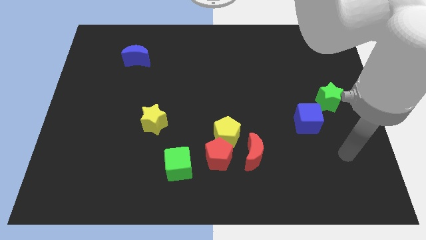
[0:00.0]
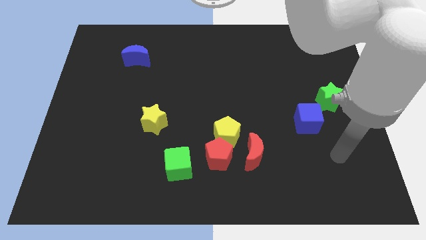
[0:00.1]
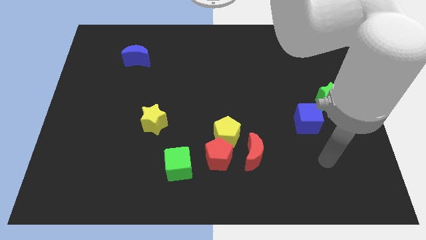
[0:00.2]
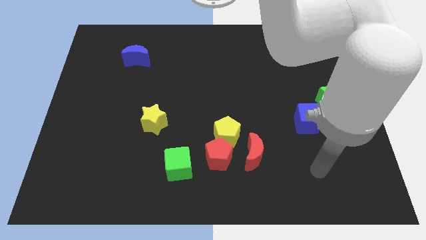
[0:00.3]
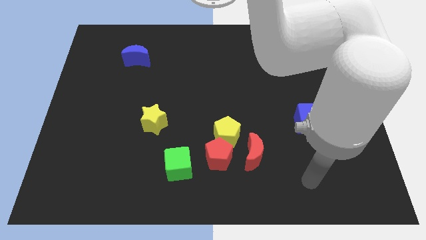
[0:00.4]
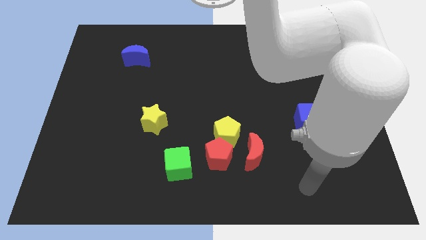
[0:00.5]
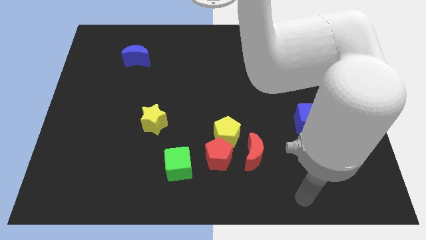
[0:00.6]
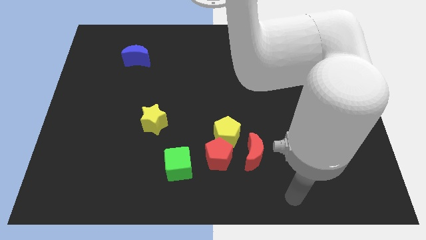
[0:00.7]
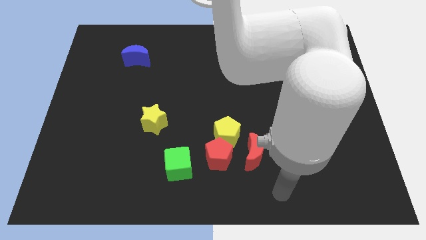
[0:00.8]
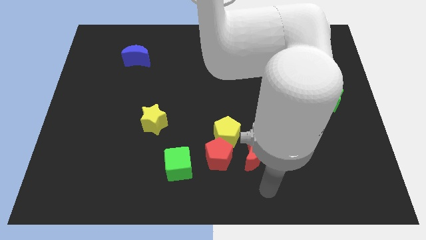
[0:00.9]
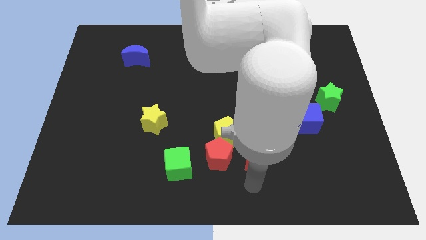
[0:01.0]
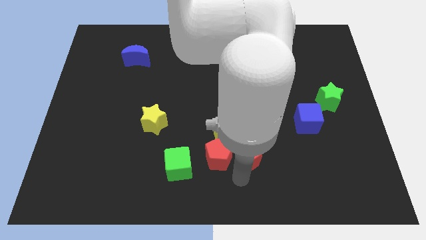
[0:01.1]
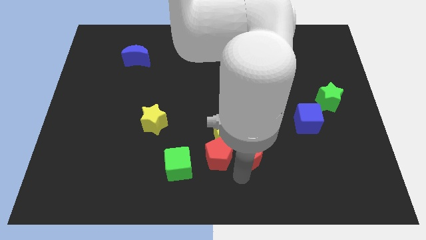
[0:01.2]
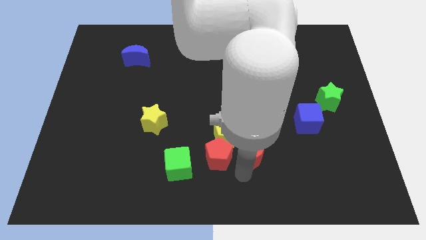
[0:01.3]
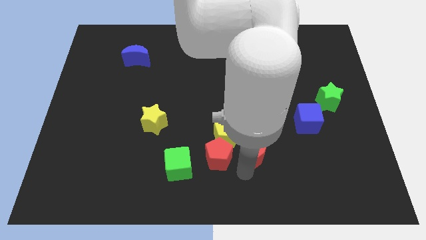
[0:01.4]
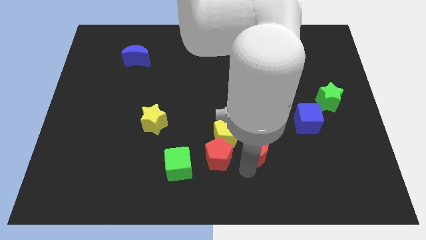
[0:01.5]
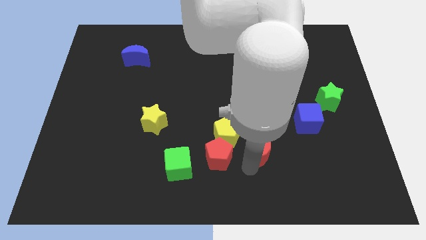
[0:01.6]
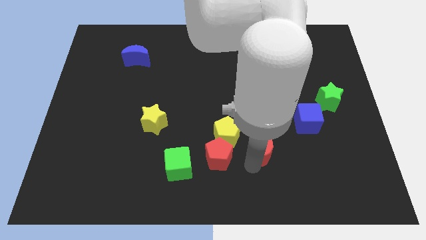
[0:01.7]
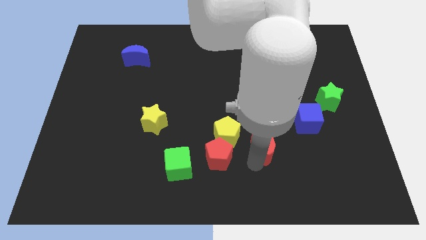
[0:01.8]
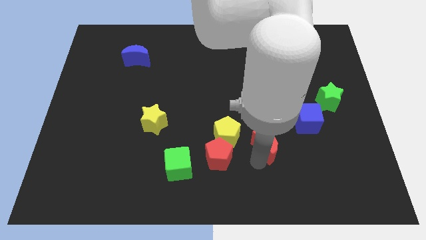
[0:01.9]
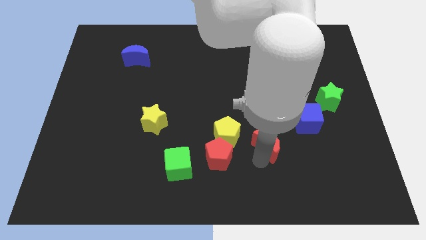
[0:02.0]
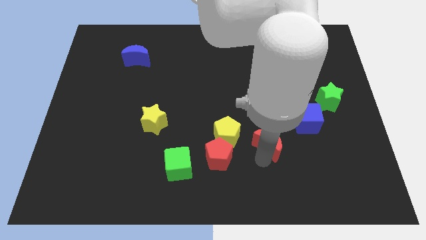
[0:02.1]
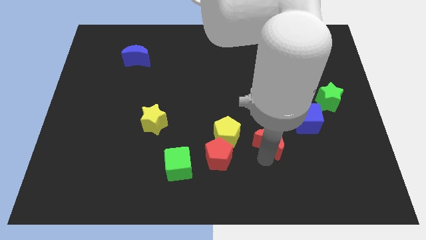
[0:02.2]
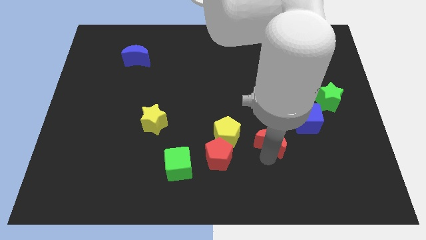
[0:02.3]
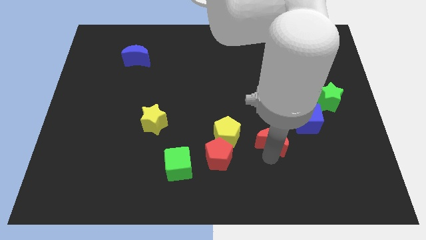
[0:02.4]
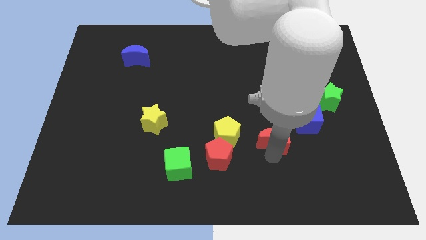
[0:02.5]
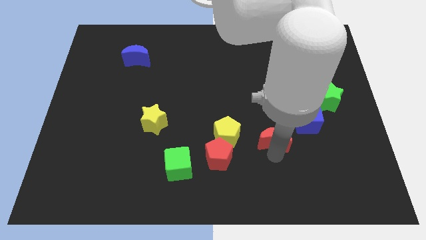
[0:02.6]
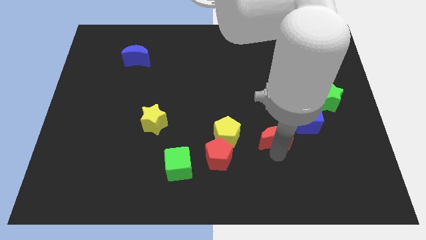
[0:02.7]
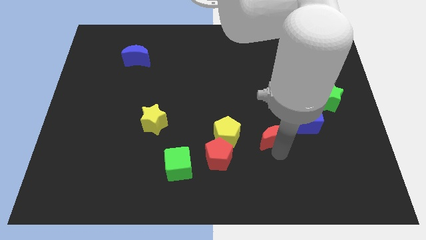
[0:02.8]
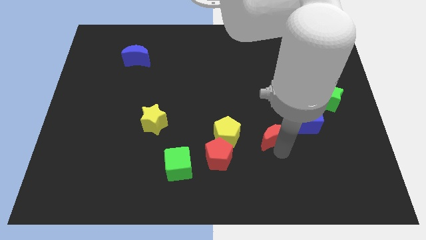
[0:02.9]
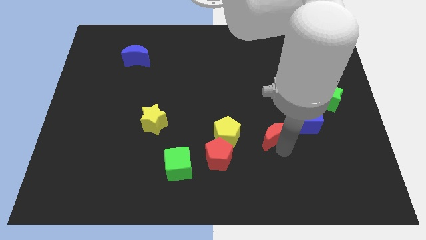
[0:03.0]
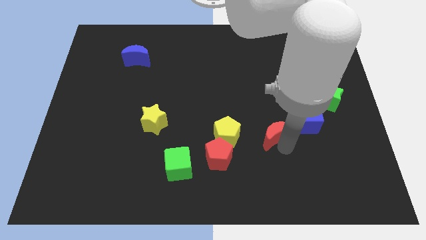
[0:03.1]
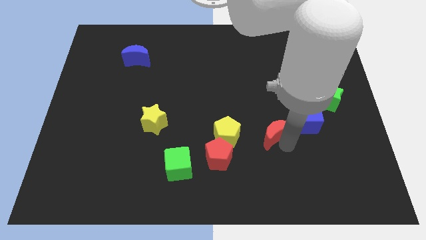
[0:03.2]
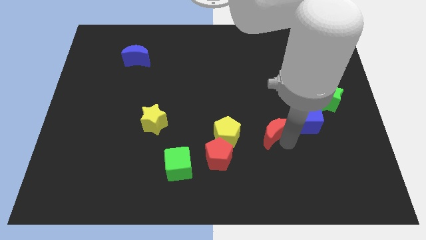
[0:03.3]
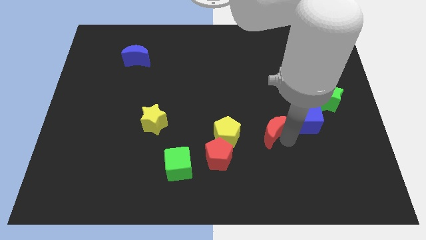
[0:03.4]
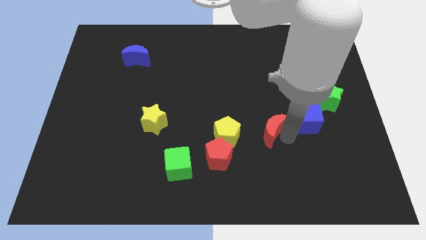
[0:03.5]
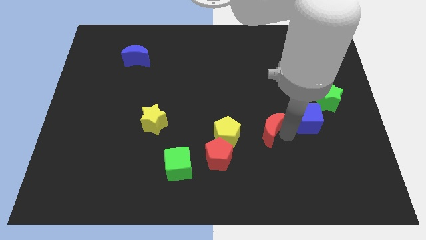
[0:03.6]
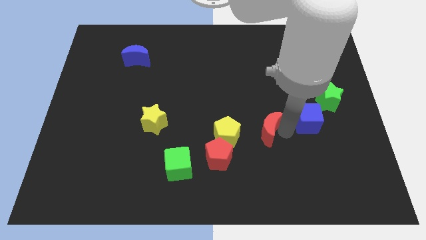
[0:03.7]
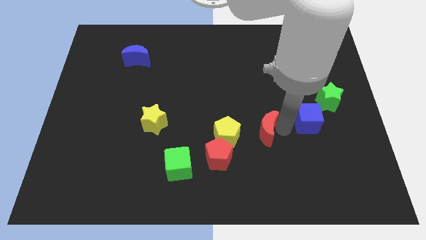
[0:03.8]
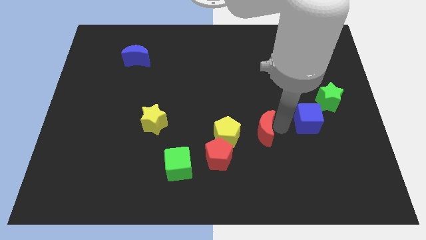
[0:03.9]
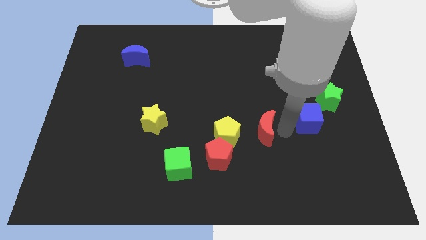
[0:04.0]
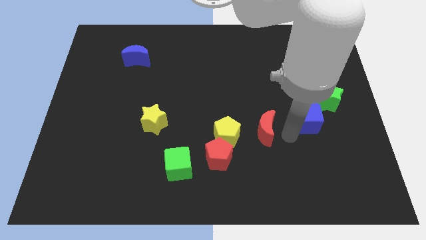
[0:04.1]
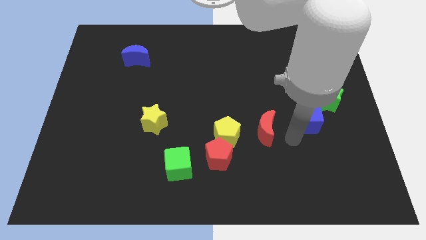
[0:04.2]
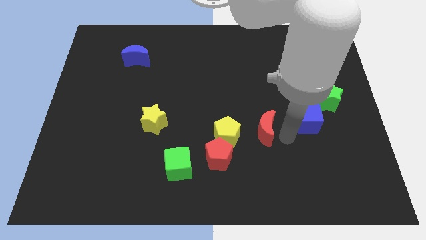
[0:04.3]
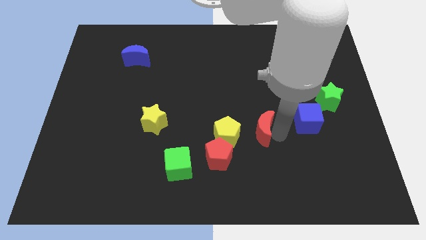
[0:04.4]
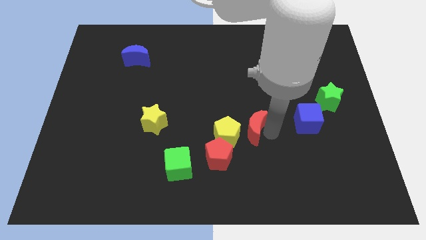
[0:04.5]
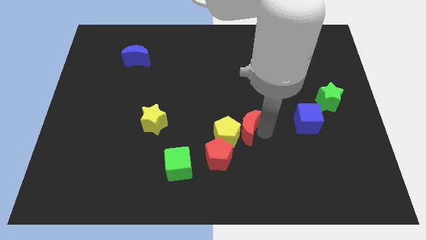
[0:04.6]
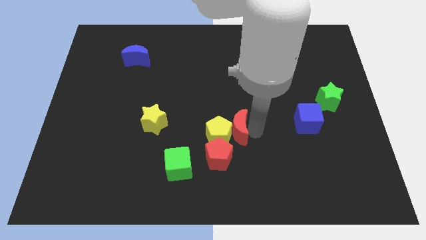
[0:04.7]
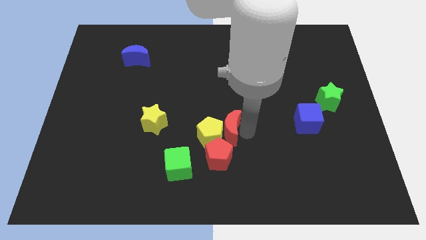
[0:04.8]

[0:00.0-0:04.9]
slide the red moon upwards and left somewhat

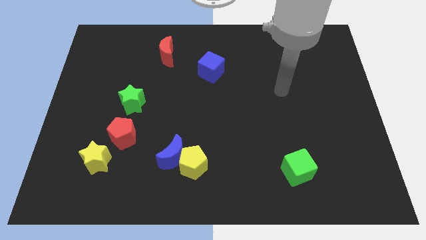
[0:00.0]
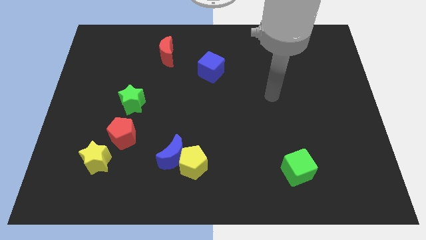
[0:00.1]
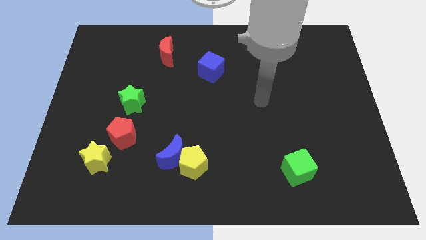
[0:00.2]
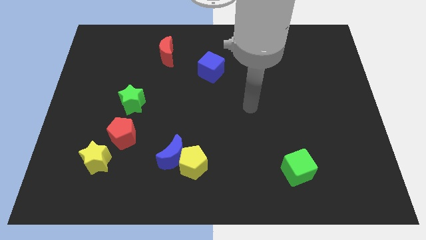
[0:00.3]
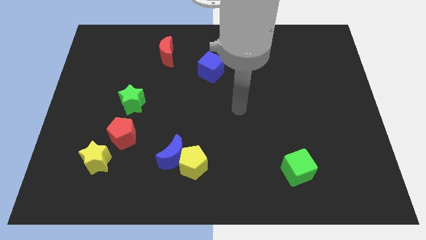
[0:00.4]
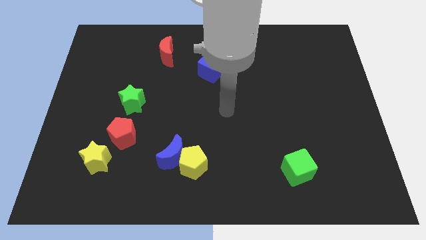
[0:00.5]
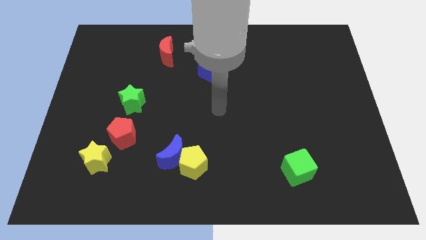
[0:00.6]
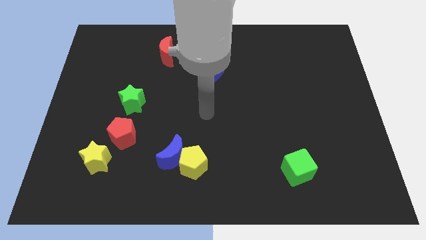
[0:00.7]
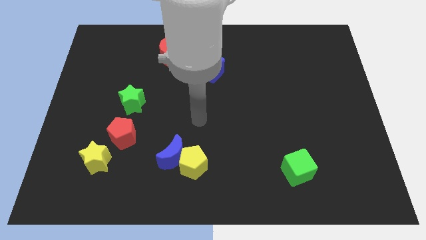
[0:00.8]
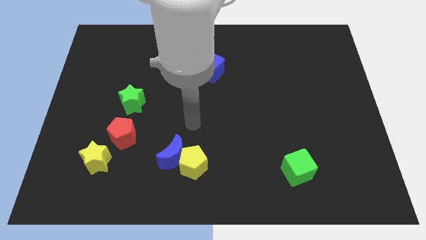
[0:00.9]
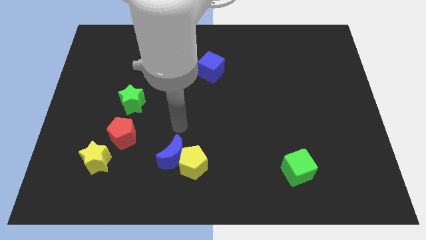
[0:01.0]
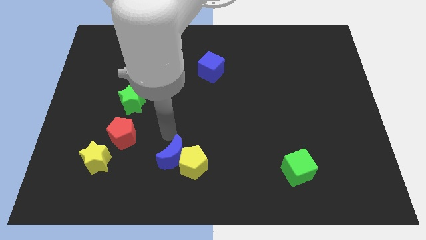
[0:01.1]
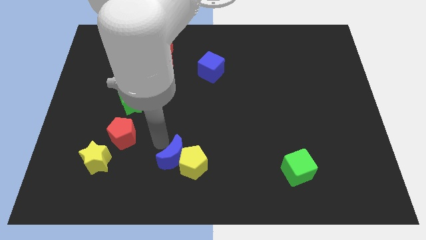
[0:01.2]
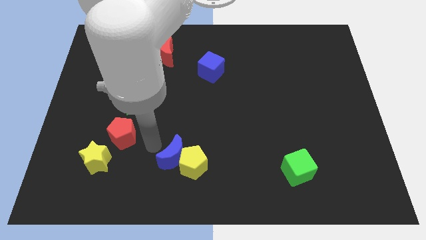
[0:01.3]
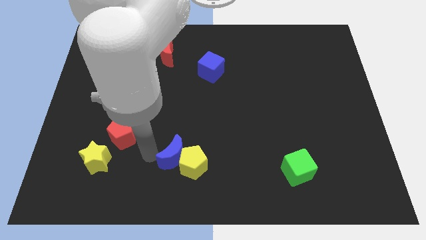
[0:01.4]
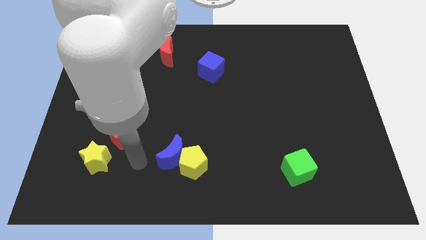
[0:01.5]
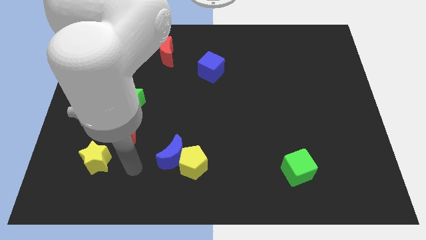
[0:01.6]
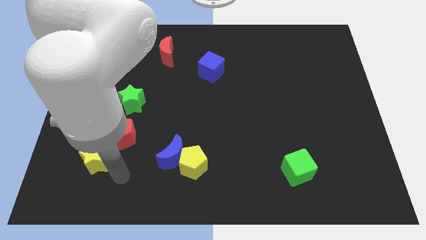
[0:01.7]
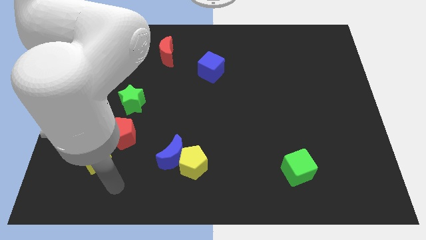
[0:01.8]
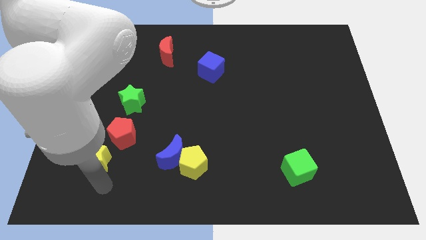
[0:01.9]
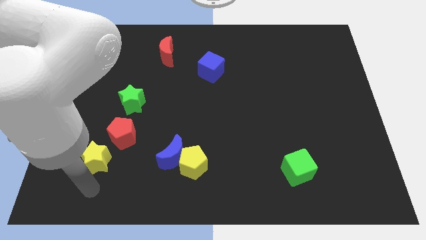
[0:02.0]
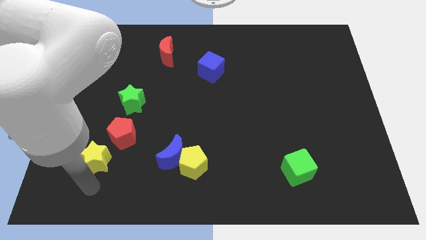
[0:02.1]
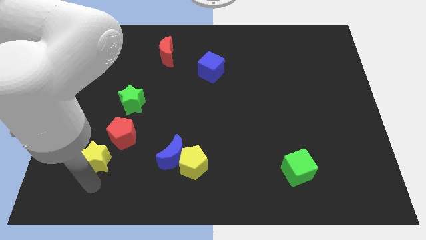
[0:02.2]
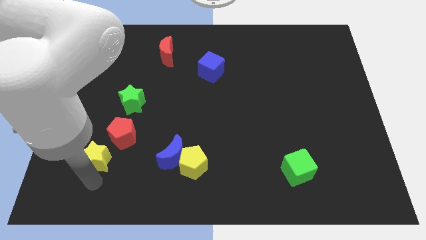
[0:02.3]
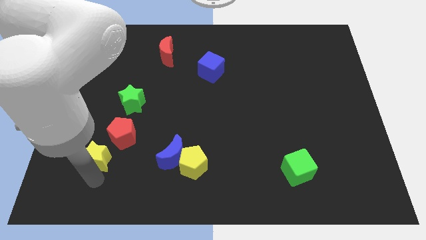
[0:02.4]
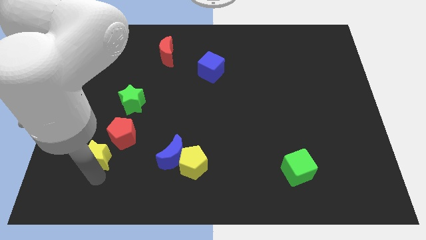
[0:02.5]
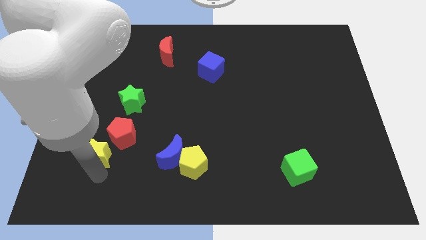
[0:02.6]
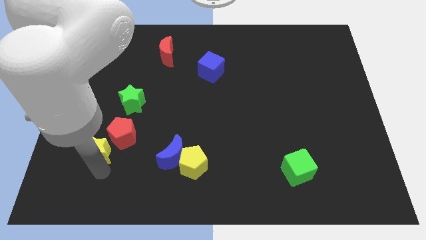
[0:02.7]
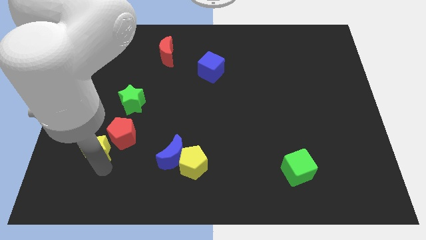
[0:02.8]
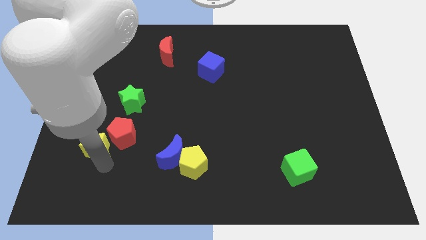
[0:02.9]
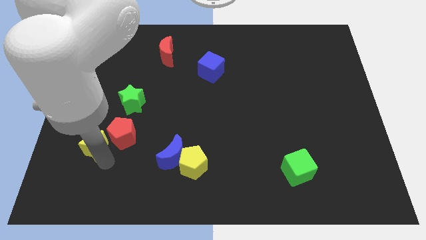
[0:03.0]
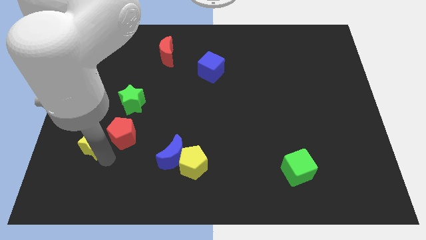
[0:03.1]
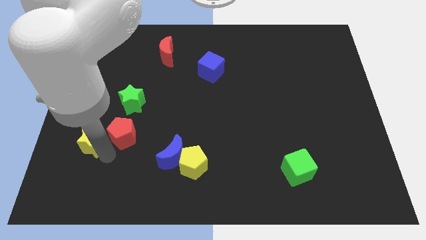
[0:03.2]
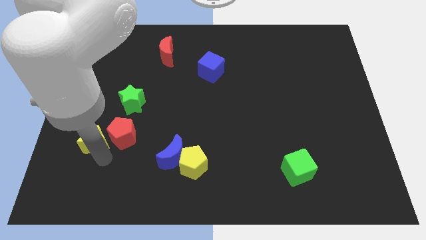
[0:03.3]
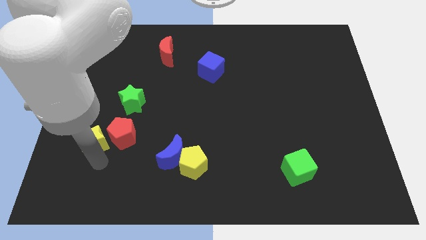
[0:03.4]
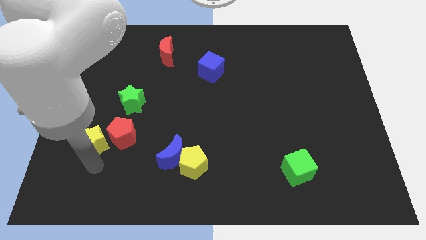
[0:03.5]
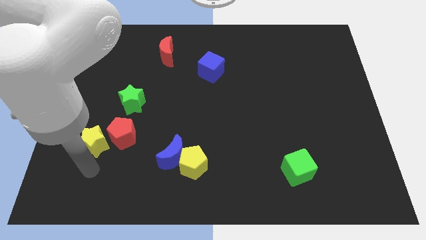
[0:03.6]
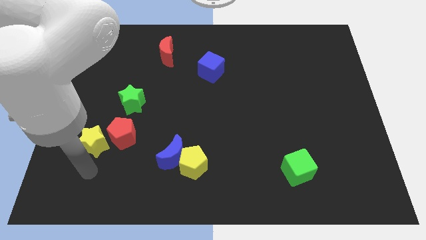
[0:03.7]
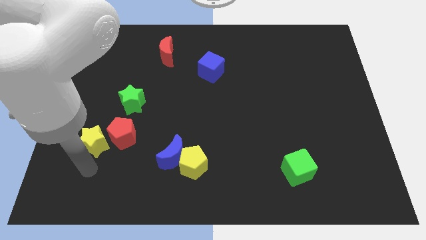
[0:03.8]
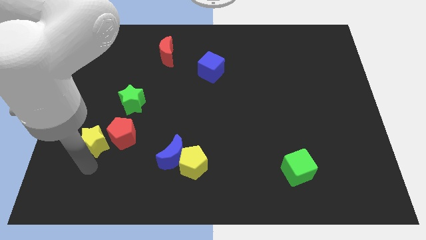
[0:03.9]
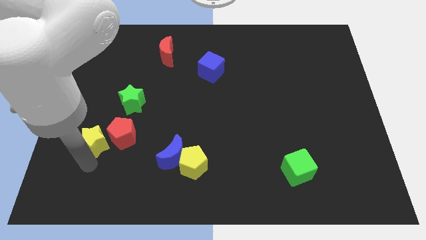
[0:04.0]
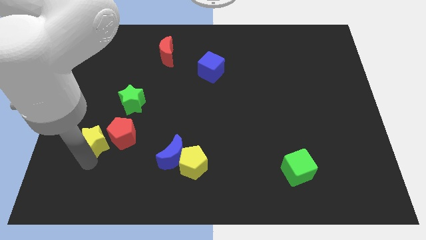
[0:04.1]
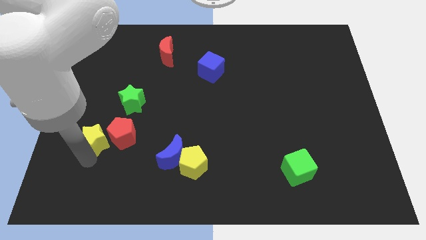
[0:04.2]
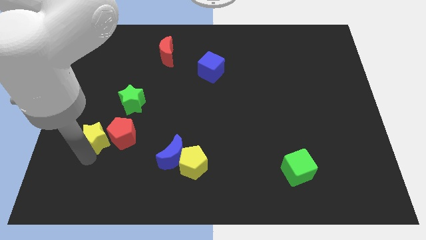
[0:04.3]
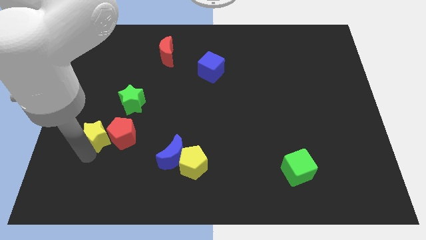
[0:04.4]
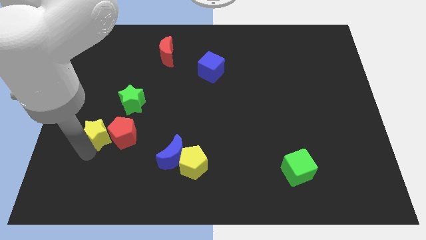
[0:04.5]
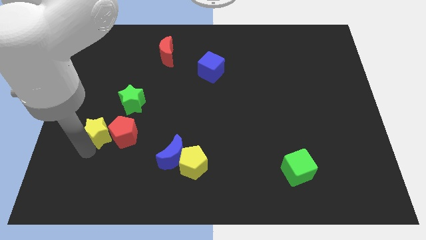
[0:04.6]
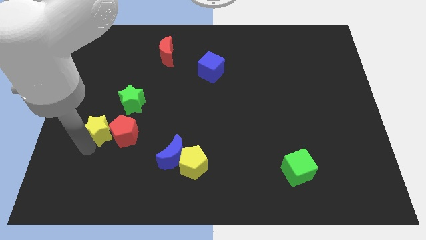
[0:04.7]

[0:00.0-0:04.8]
push the yellow star upwards somewhat
